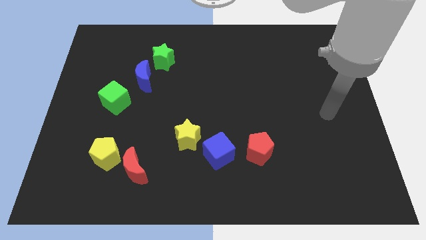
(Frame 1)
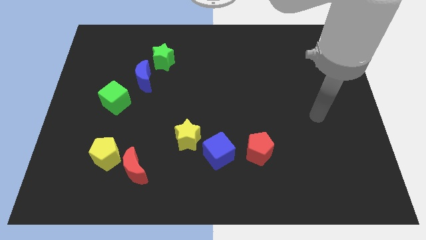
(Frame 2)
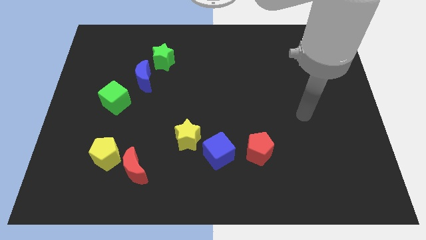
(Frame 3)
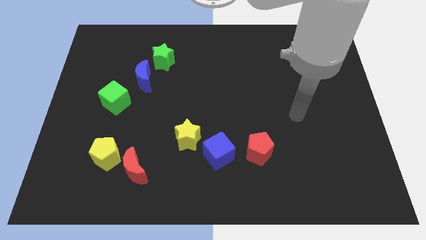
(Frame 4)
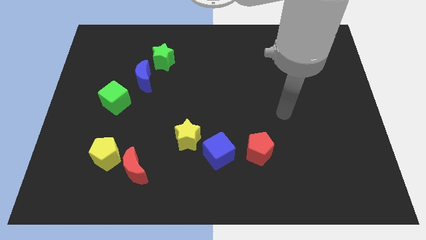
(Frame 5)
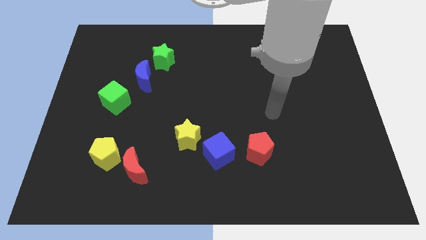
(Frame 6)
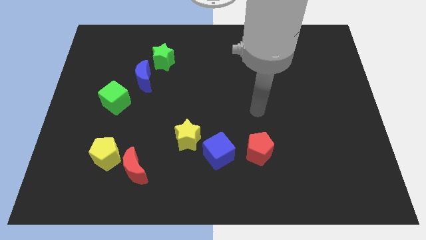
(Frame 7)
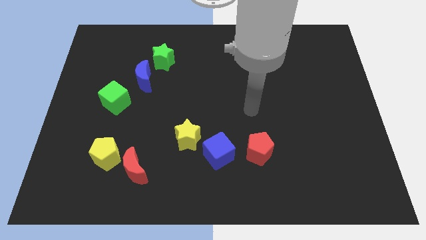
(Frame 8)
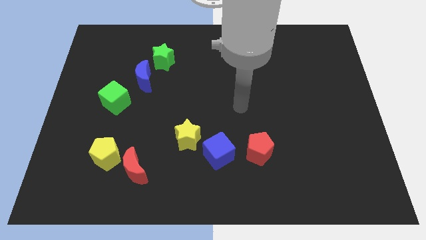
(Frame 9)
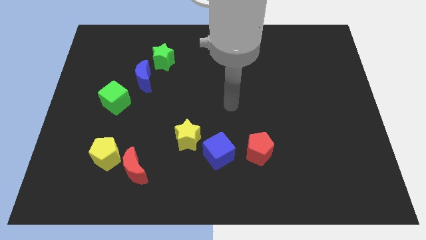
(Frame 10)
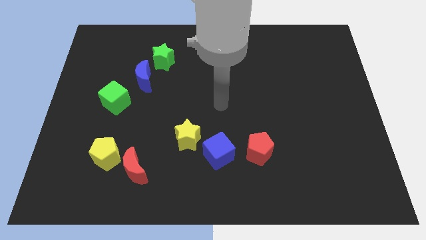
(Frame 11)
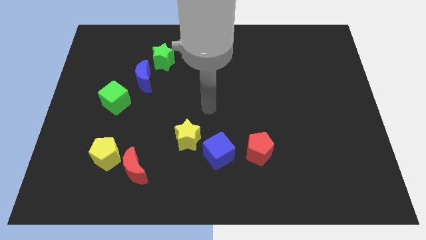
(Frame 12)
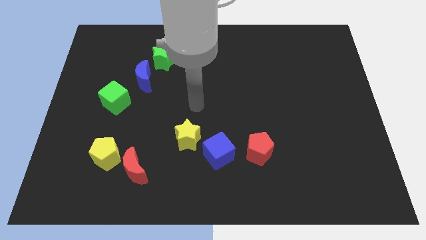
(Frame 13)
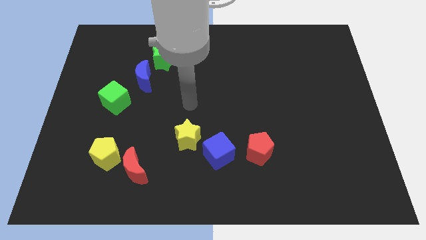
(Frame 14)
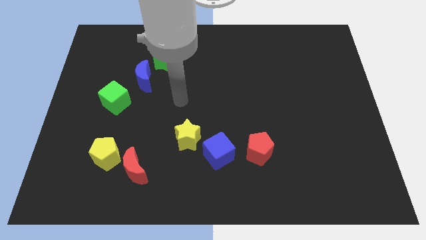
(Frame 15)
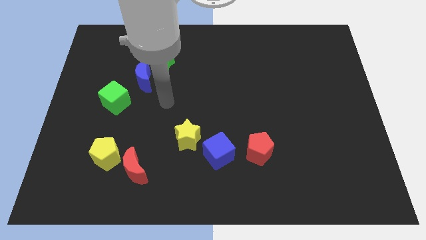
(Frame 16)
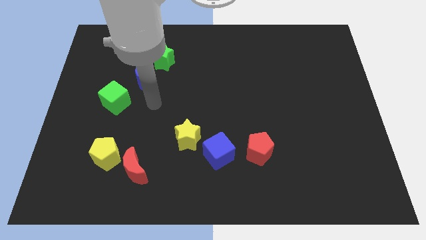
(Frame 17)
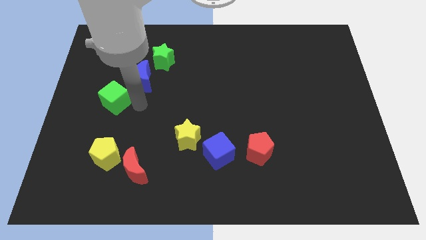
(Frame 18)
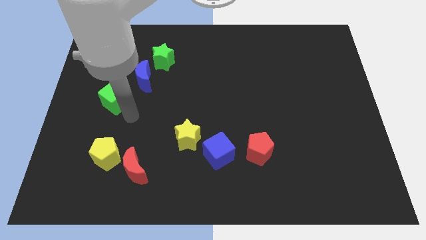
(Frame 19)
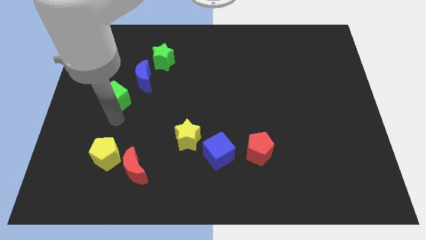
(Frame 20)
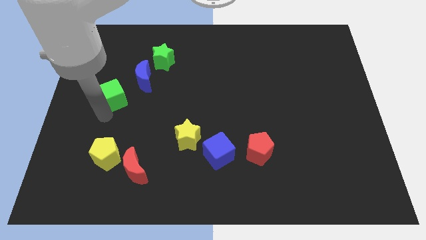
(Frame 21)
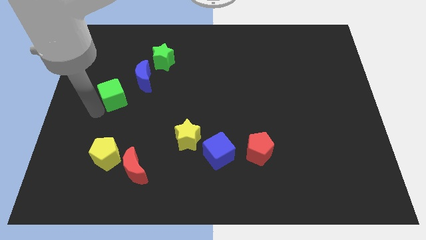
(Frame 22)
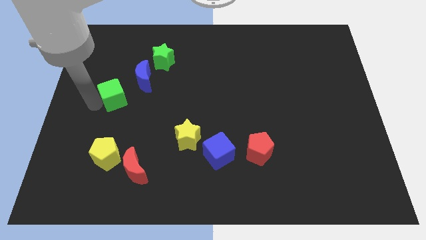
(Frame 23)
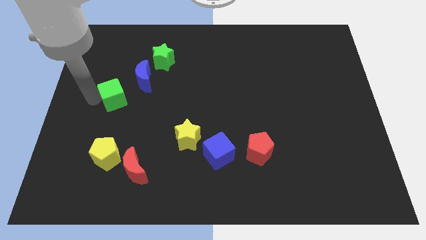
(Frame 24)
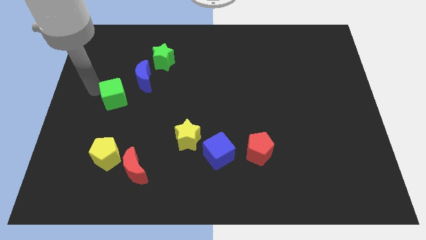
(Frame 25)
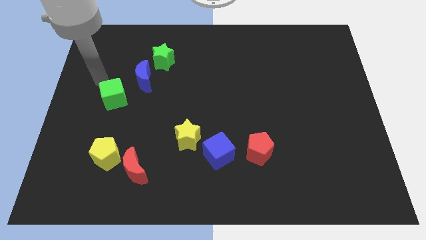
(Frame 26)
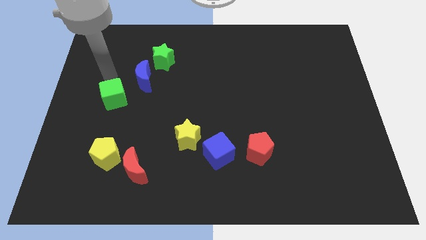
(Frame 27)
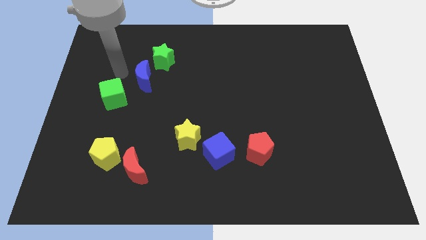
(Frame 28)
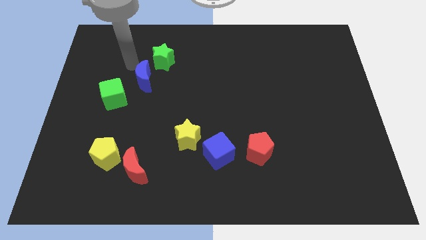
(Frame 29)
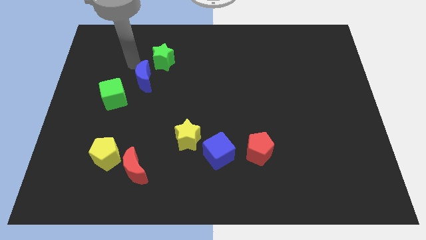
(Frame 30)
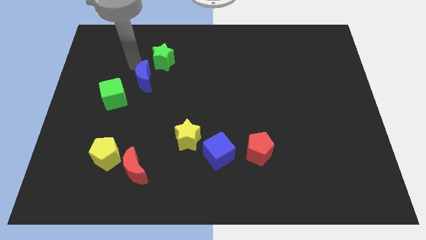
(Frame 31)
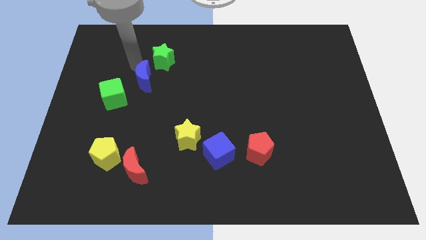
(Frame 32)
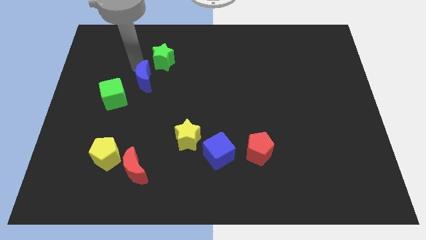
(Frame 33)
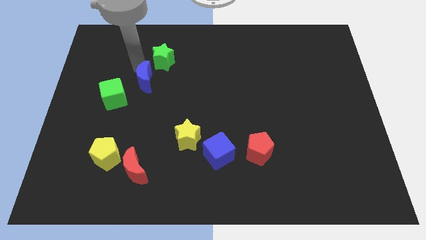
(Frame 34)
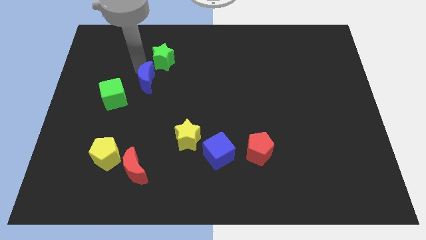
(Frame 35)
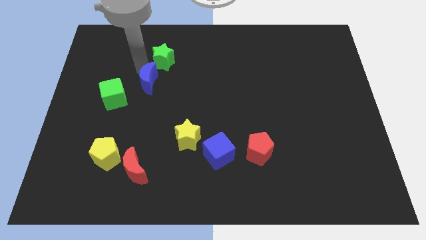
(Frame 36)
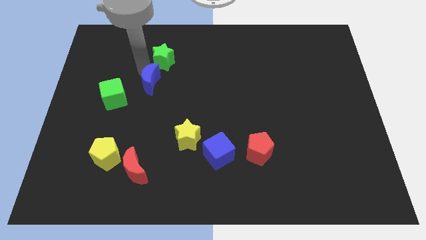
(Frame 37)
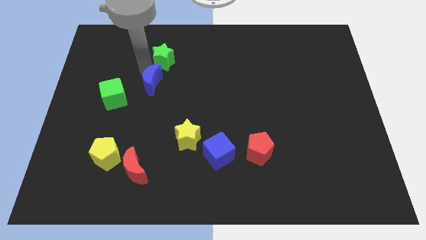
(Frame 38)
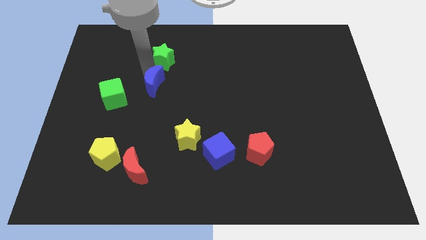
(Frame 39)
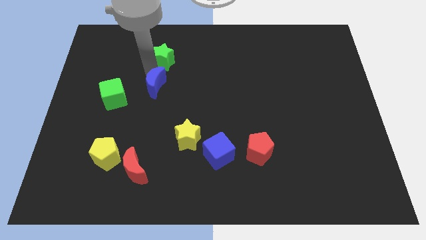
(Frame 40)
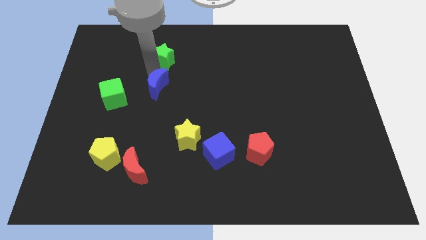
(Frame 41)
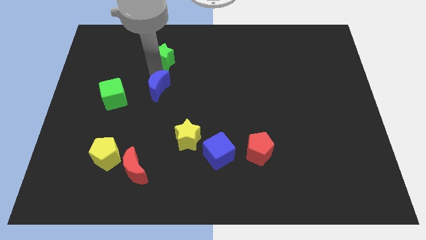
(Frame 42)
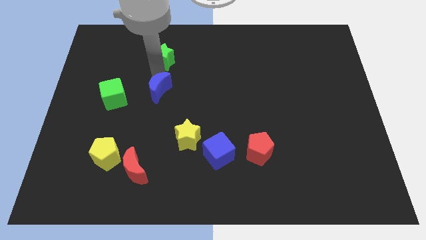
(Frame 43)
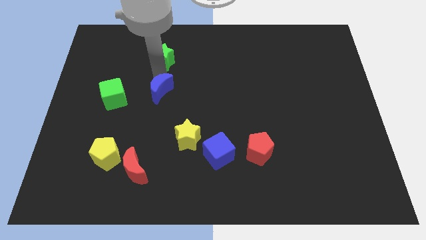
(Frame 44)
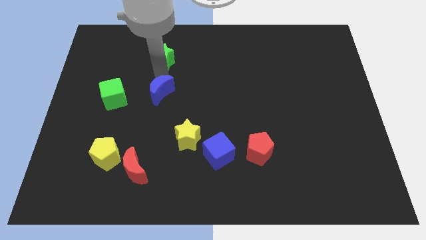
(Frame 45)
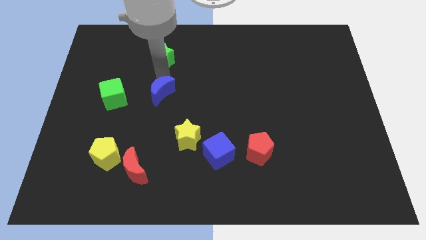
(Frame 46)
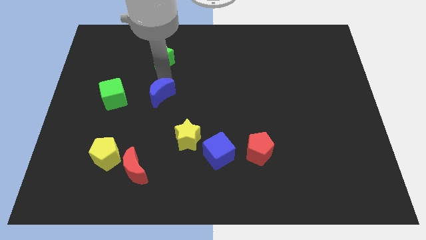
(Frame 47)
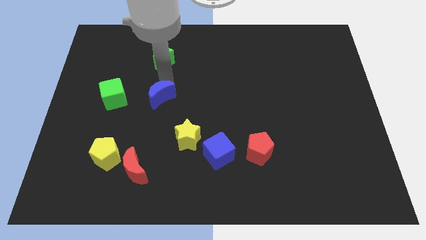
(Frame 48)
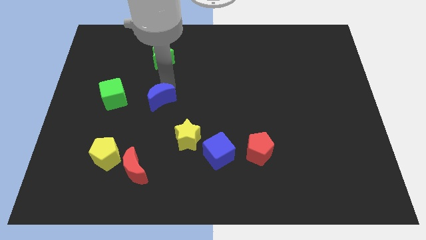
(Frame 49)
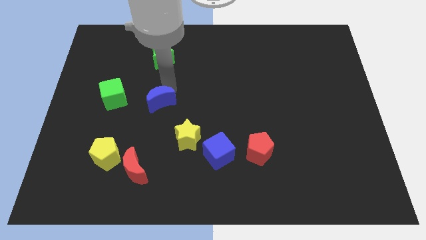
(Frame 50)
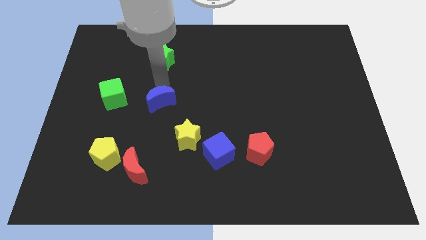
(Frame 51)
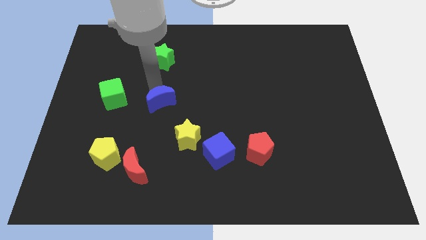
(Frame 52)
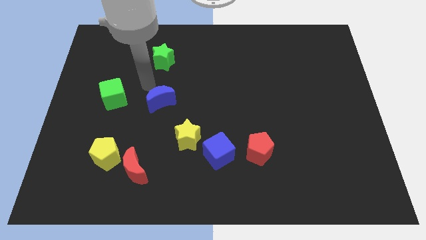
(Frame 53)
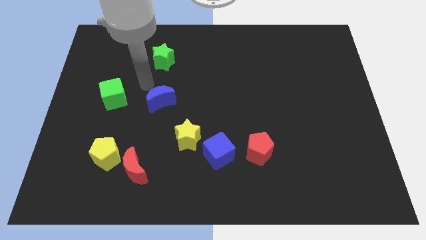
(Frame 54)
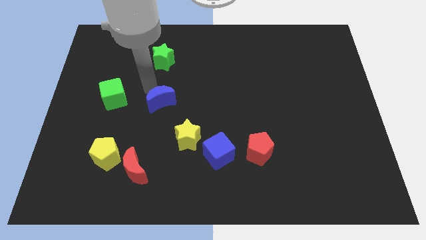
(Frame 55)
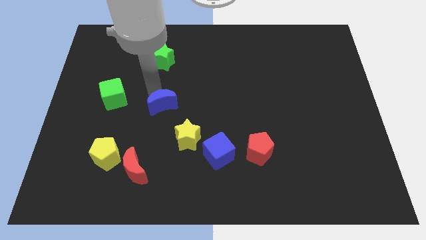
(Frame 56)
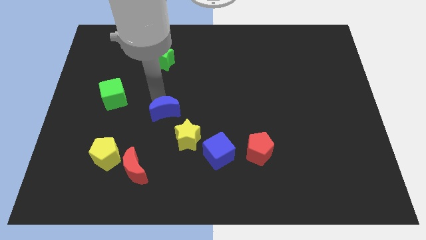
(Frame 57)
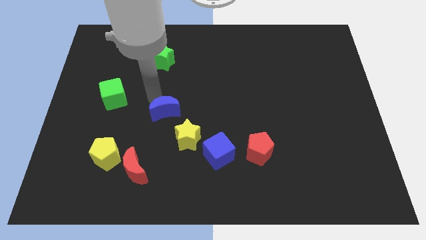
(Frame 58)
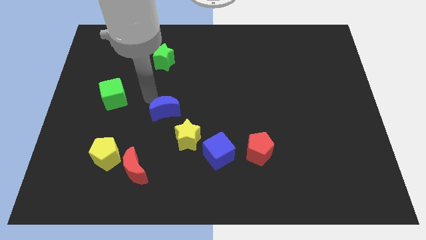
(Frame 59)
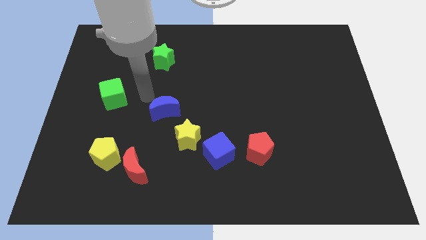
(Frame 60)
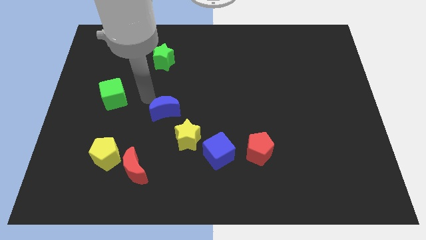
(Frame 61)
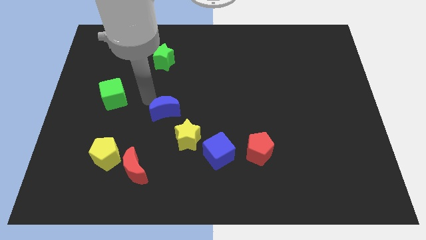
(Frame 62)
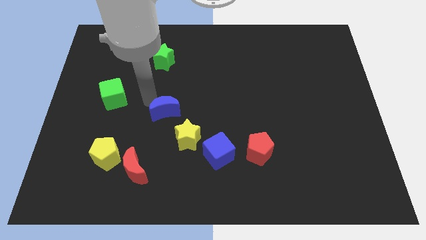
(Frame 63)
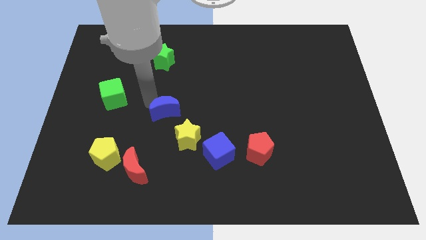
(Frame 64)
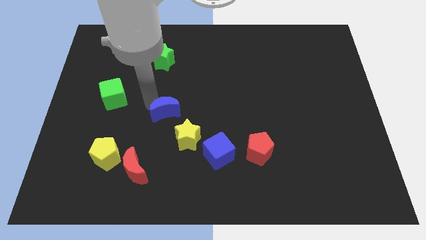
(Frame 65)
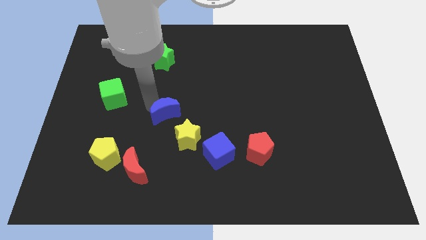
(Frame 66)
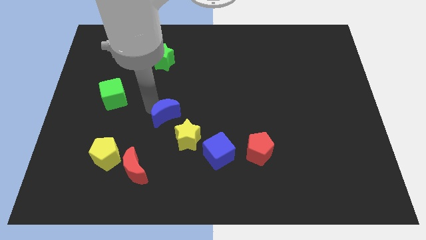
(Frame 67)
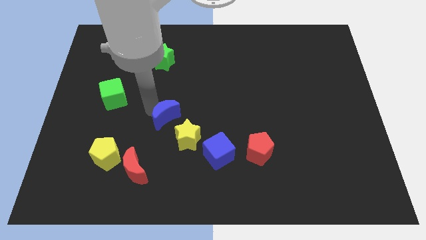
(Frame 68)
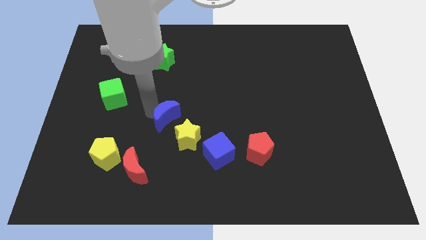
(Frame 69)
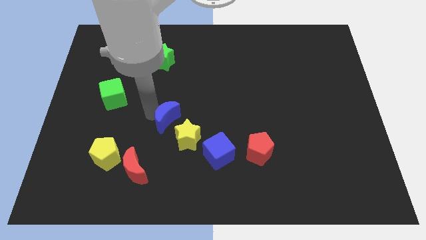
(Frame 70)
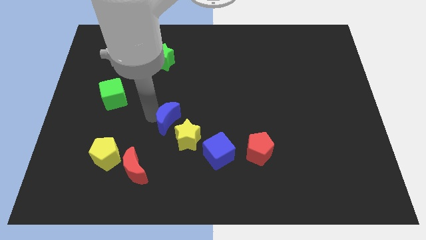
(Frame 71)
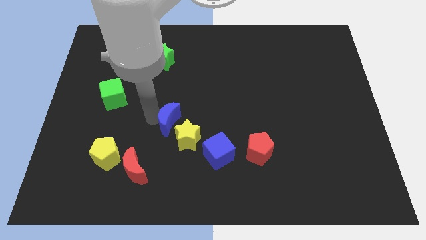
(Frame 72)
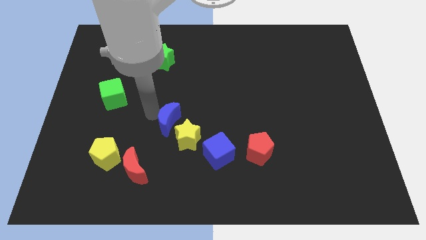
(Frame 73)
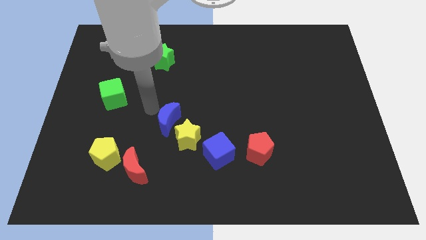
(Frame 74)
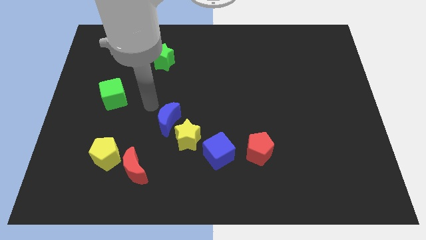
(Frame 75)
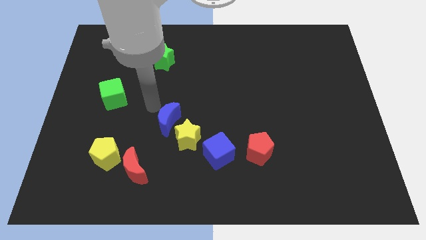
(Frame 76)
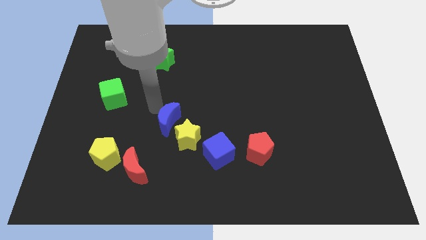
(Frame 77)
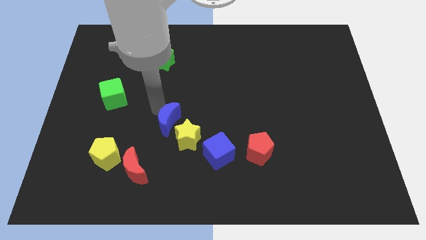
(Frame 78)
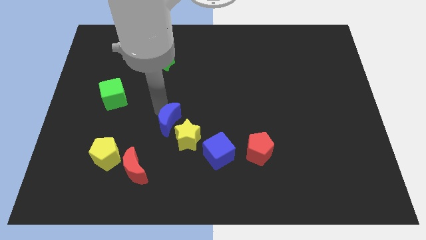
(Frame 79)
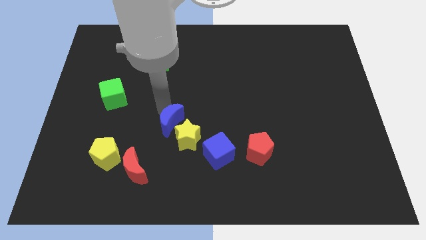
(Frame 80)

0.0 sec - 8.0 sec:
push the blue moon to the yellow star
